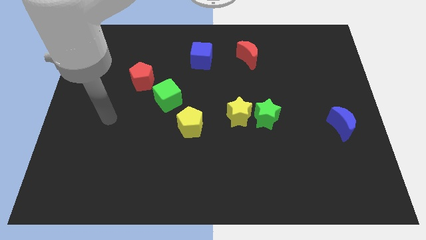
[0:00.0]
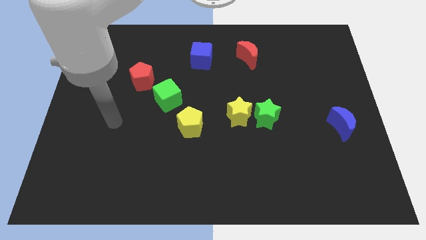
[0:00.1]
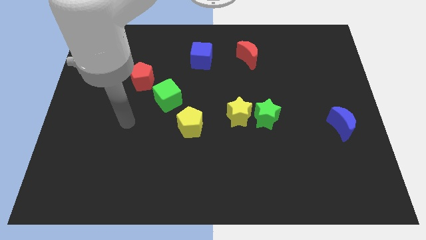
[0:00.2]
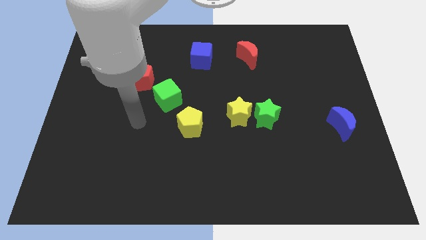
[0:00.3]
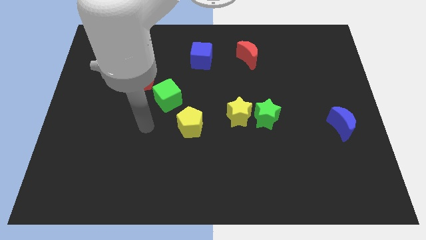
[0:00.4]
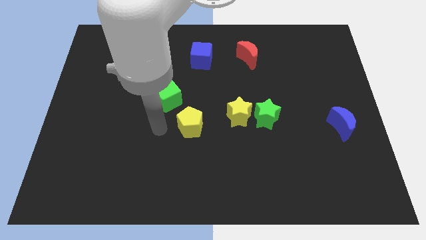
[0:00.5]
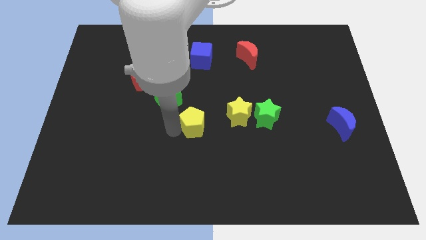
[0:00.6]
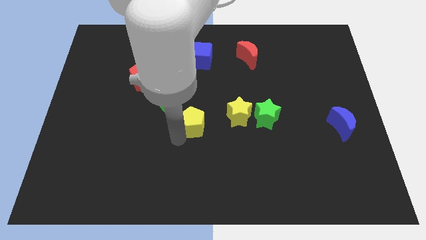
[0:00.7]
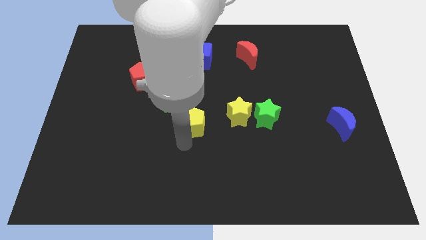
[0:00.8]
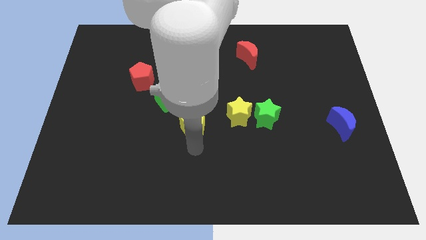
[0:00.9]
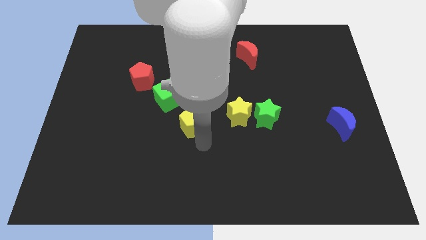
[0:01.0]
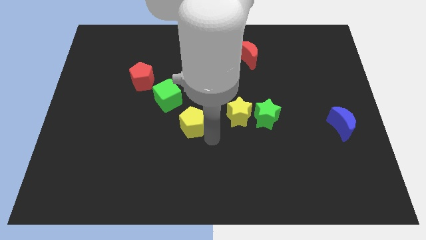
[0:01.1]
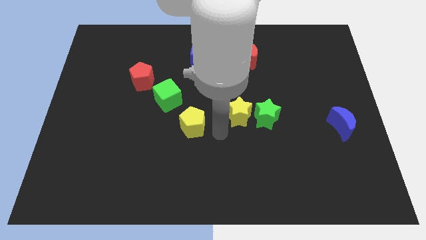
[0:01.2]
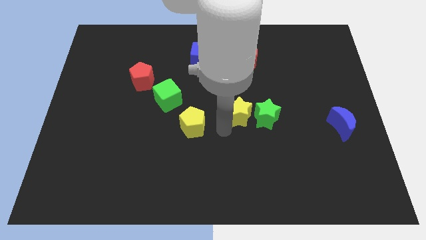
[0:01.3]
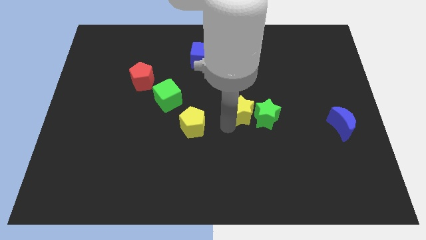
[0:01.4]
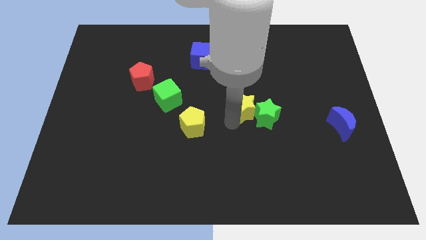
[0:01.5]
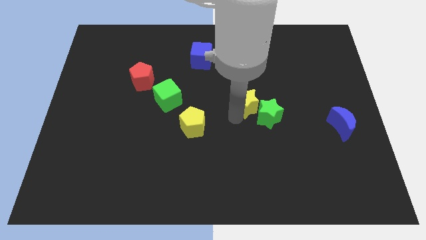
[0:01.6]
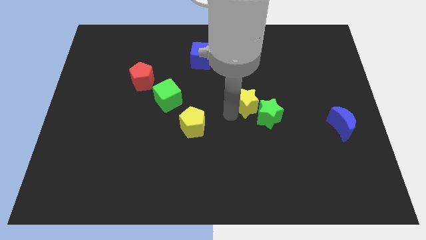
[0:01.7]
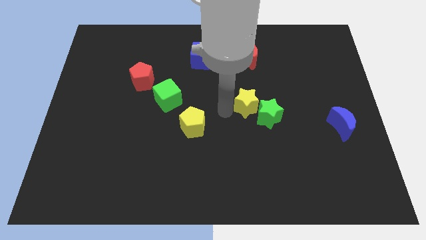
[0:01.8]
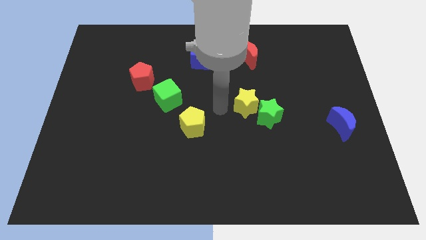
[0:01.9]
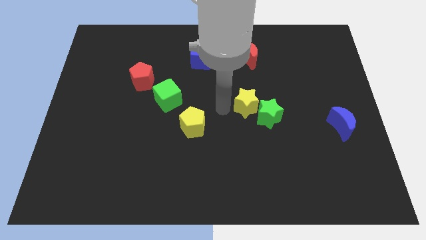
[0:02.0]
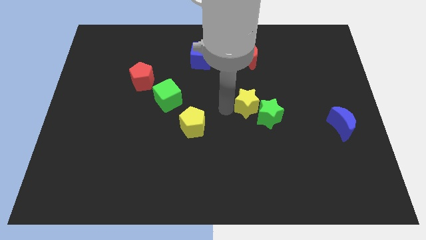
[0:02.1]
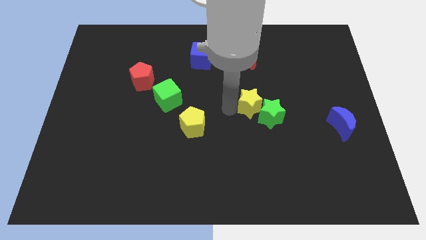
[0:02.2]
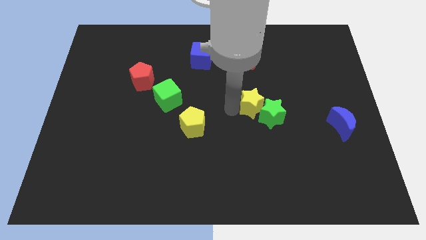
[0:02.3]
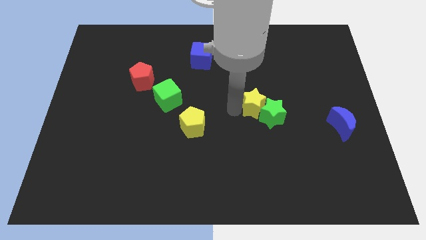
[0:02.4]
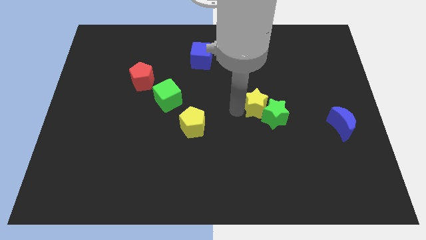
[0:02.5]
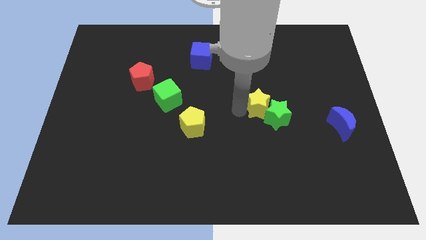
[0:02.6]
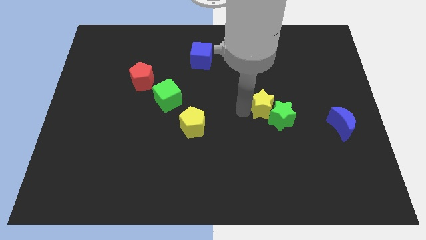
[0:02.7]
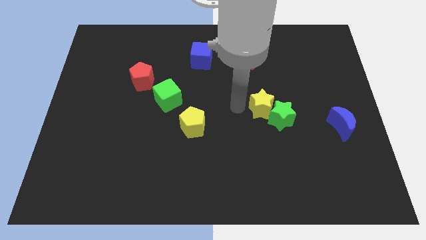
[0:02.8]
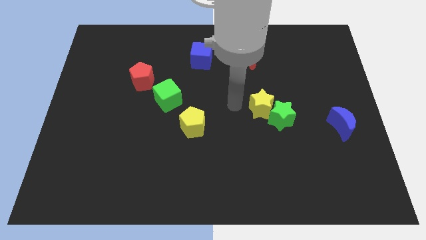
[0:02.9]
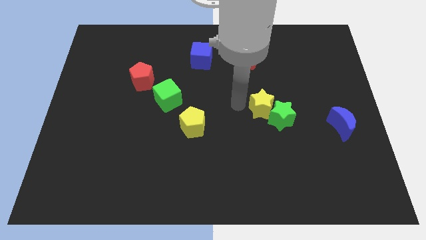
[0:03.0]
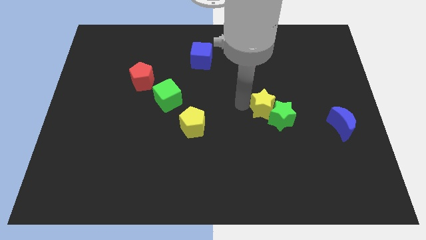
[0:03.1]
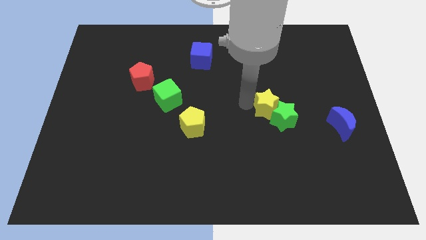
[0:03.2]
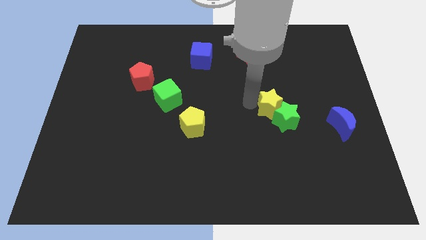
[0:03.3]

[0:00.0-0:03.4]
slightly move the yellow star right

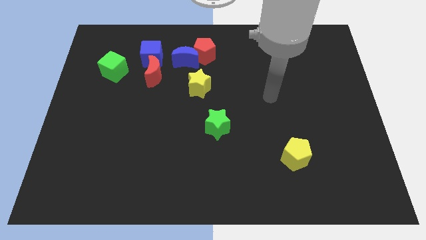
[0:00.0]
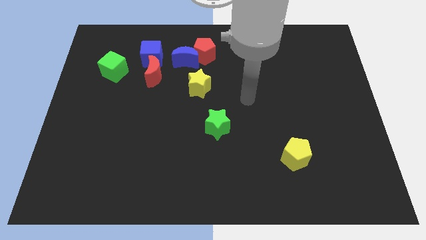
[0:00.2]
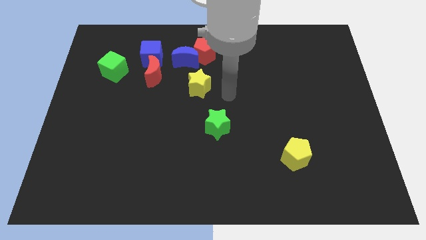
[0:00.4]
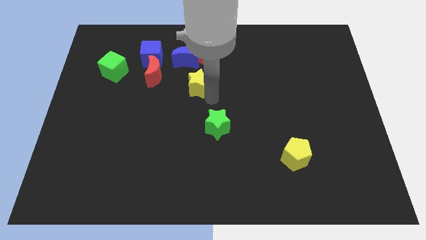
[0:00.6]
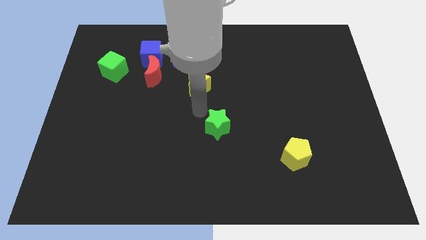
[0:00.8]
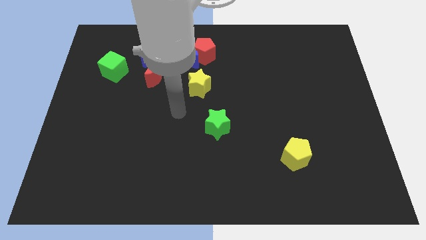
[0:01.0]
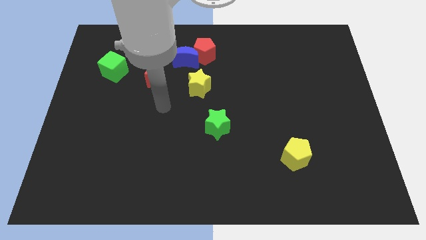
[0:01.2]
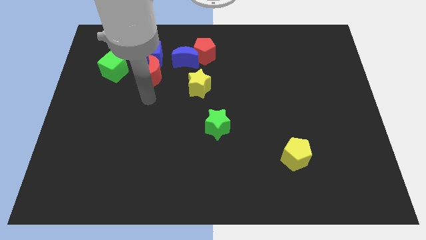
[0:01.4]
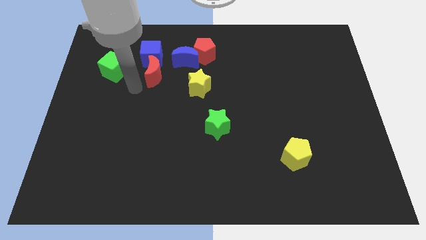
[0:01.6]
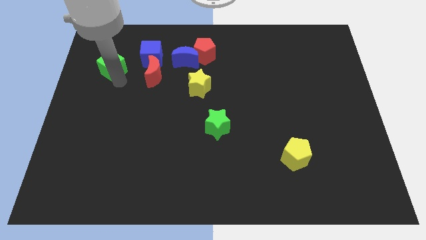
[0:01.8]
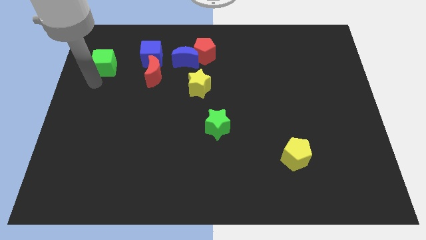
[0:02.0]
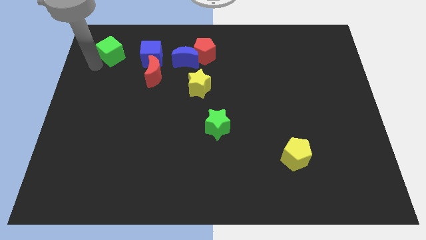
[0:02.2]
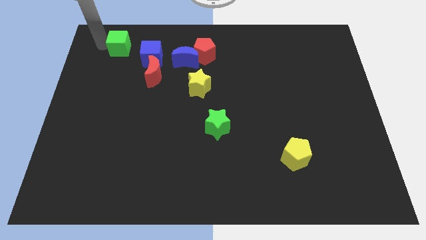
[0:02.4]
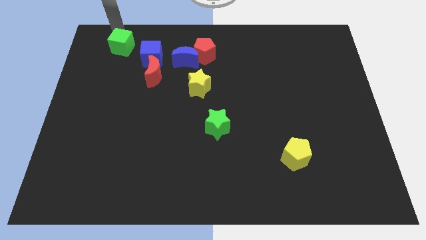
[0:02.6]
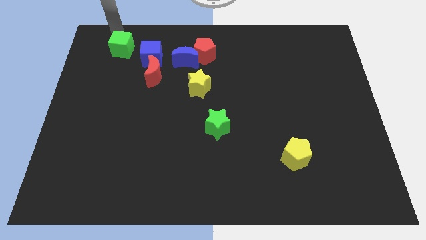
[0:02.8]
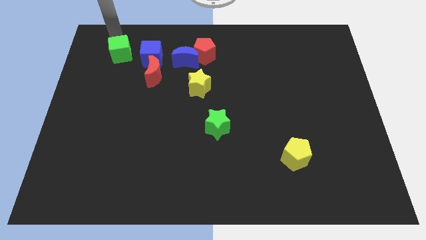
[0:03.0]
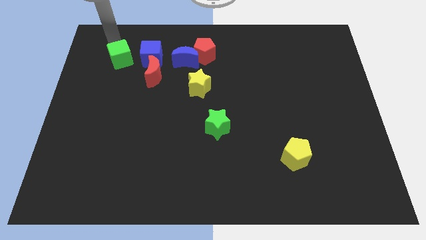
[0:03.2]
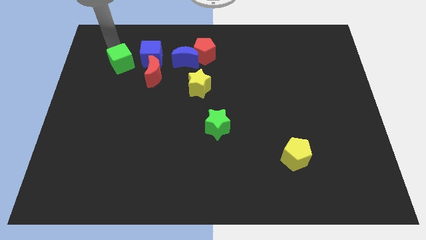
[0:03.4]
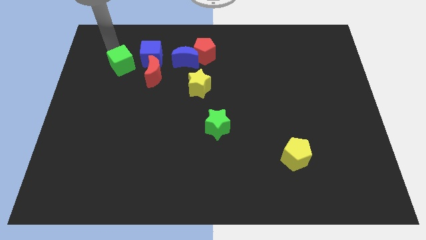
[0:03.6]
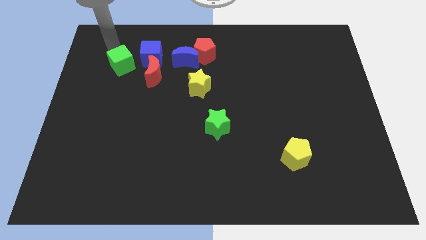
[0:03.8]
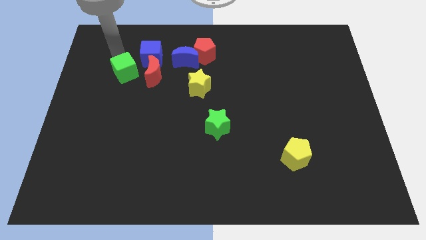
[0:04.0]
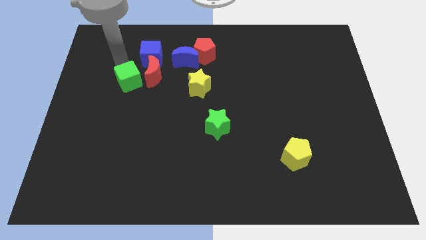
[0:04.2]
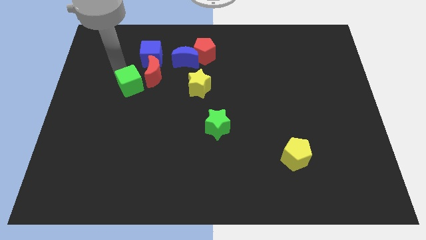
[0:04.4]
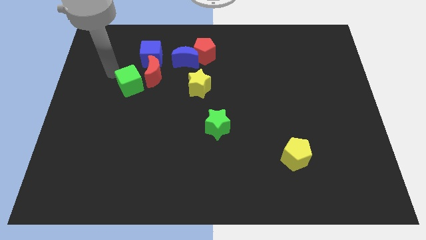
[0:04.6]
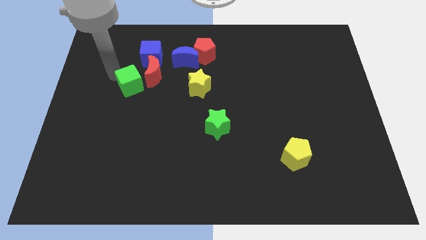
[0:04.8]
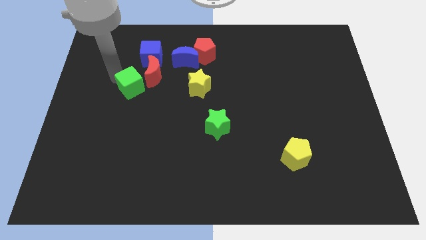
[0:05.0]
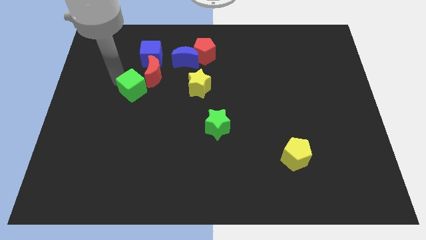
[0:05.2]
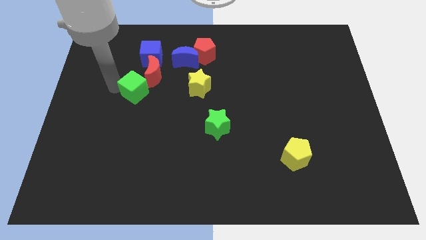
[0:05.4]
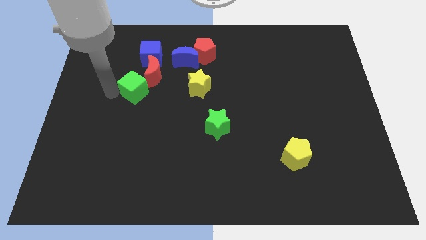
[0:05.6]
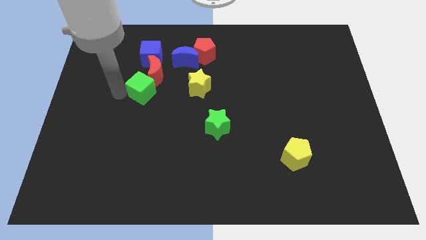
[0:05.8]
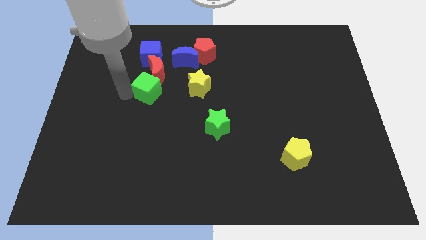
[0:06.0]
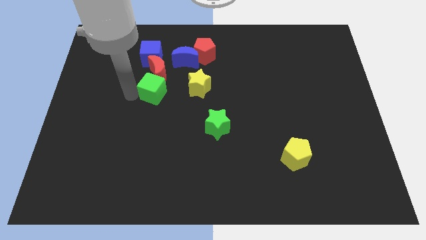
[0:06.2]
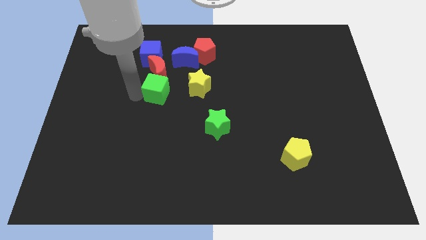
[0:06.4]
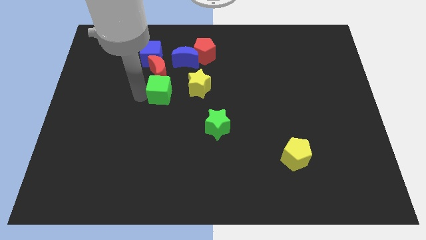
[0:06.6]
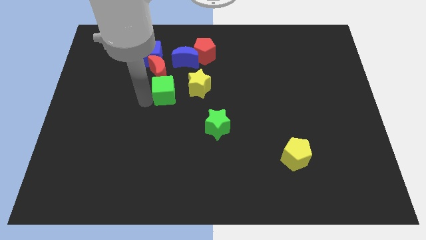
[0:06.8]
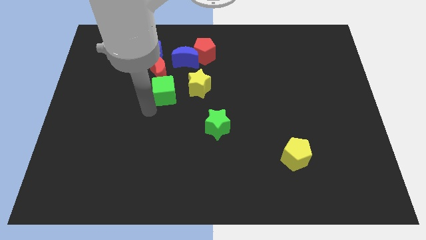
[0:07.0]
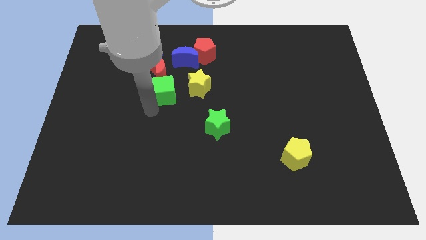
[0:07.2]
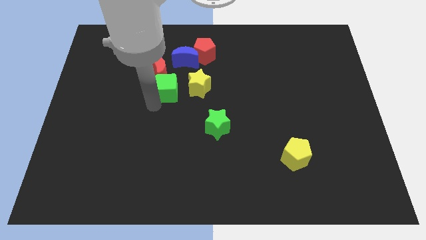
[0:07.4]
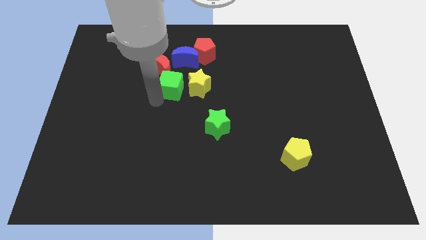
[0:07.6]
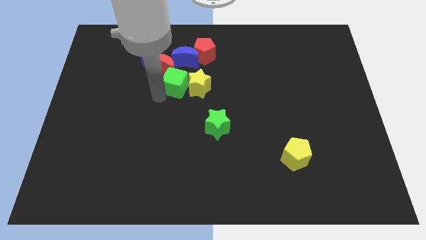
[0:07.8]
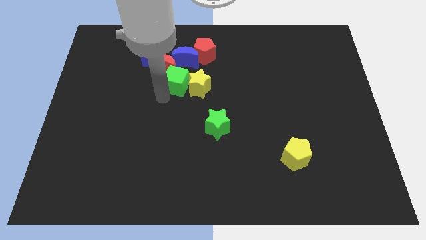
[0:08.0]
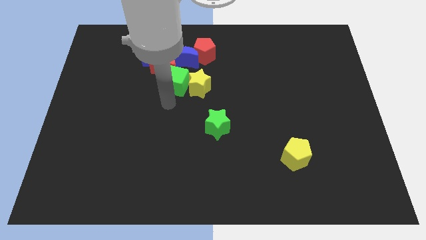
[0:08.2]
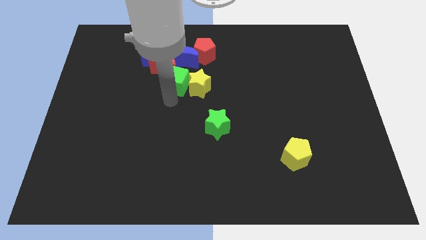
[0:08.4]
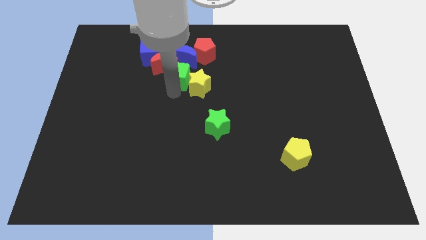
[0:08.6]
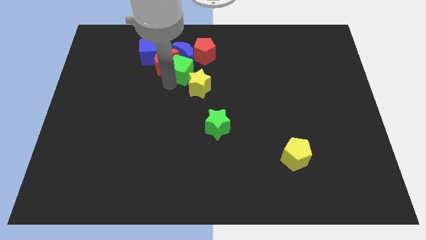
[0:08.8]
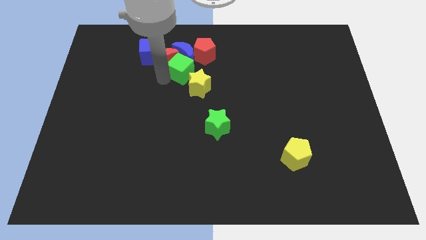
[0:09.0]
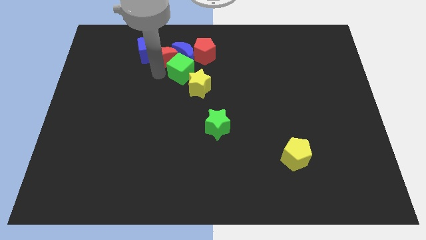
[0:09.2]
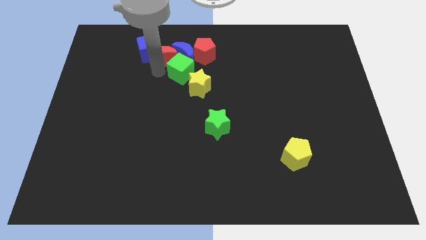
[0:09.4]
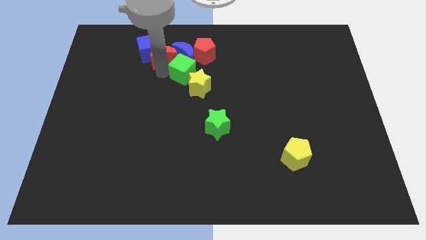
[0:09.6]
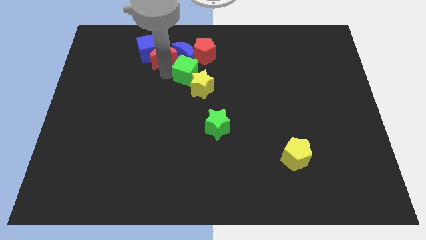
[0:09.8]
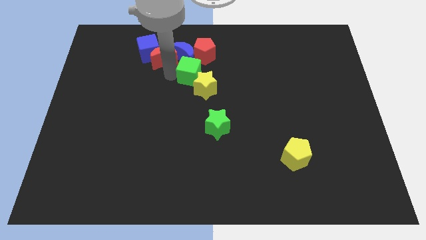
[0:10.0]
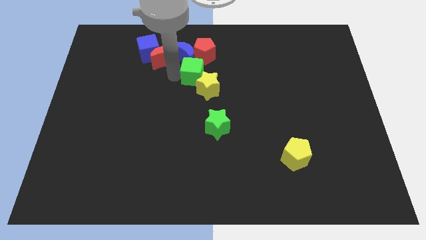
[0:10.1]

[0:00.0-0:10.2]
push the green cube right

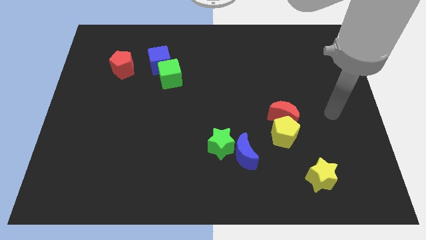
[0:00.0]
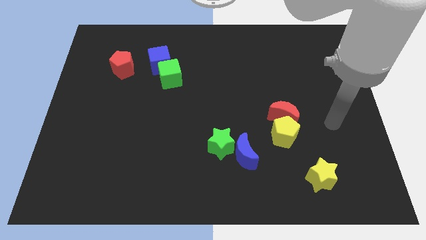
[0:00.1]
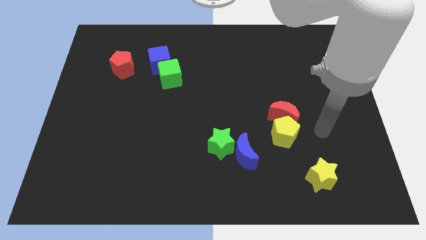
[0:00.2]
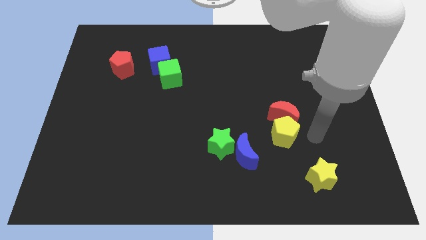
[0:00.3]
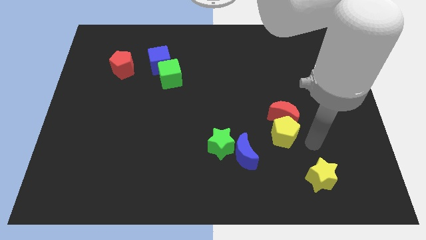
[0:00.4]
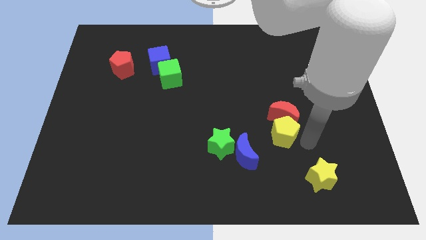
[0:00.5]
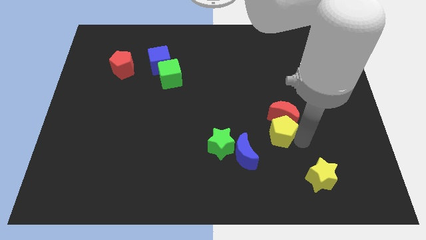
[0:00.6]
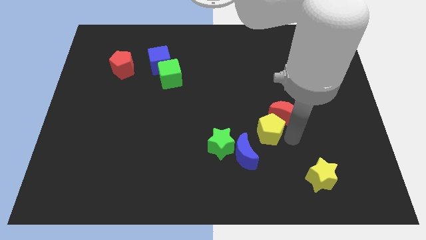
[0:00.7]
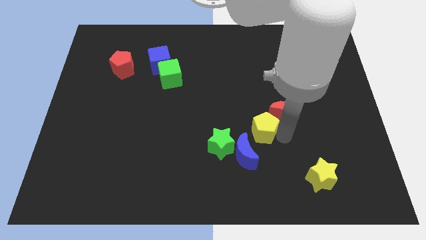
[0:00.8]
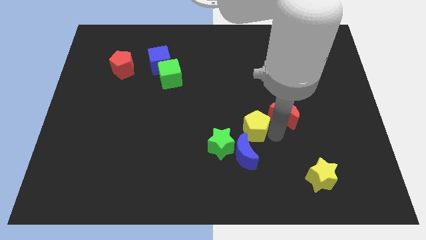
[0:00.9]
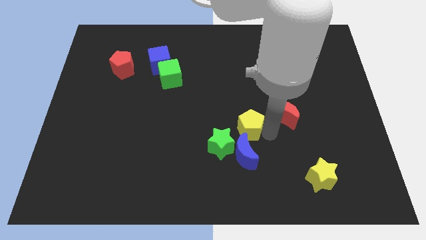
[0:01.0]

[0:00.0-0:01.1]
slide the yellow pentagon left a bit
